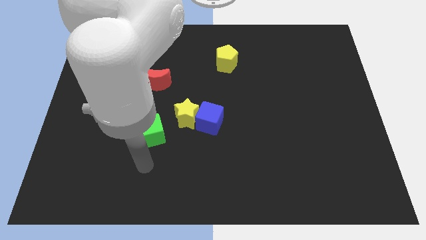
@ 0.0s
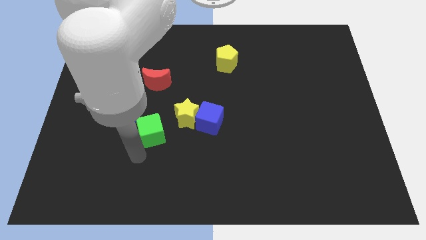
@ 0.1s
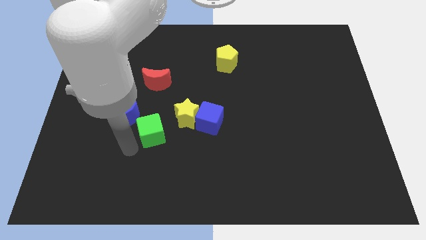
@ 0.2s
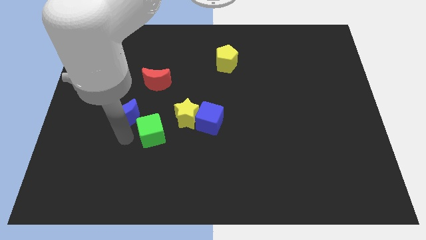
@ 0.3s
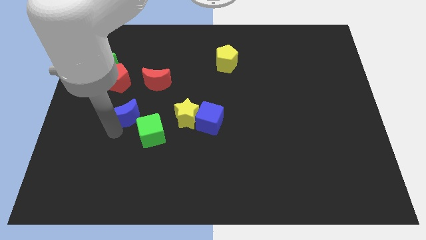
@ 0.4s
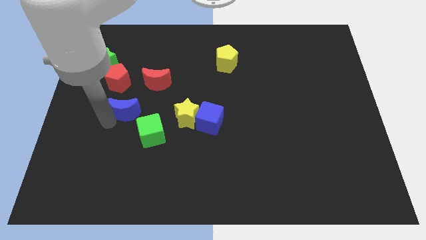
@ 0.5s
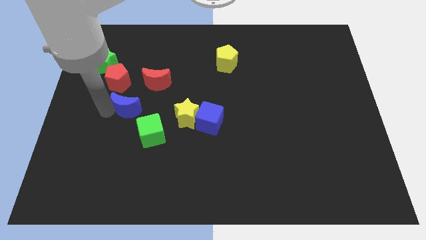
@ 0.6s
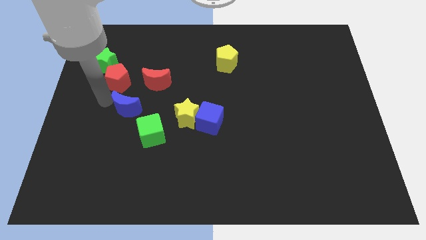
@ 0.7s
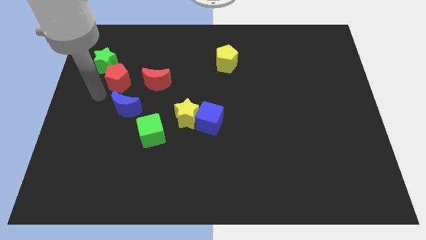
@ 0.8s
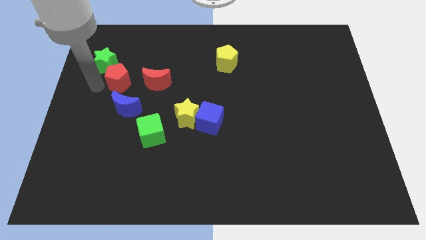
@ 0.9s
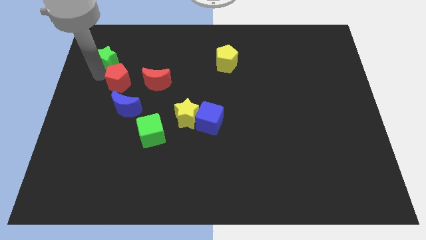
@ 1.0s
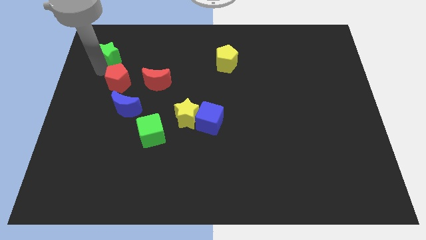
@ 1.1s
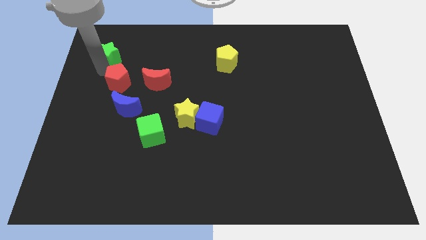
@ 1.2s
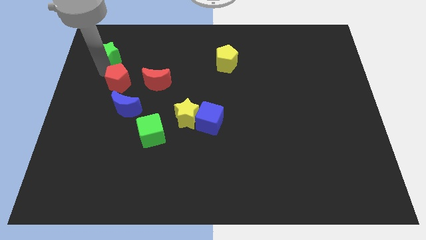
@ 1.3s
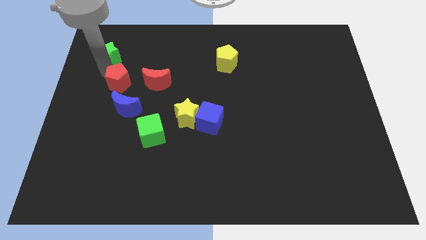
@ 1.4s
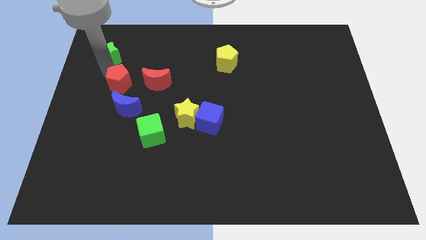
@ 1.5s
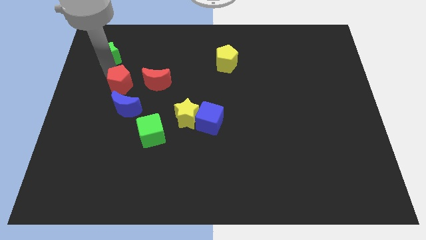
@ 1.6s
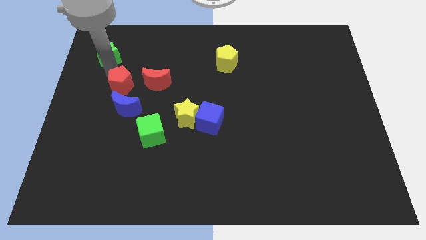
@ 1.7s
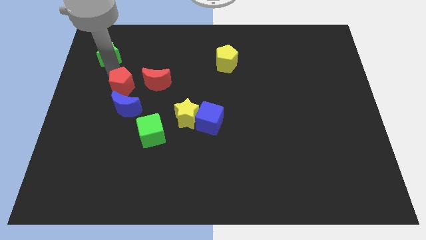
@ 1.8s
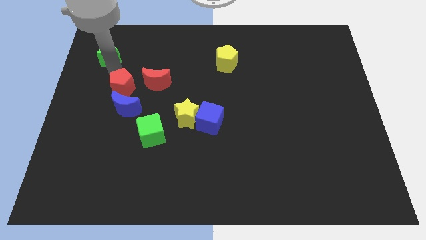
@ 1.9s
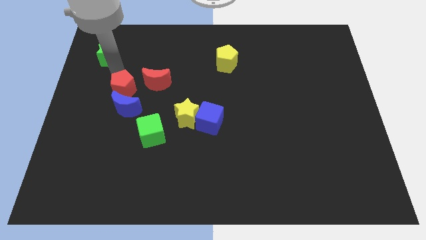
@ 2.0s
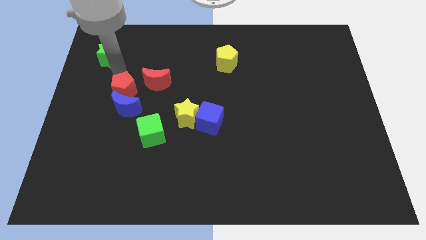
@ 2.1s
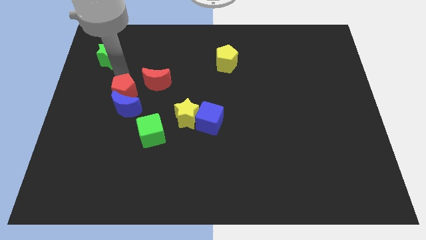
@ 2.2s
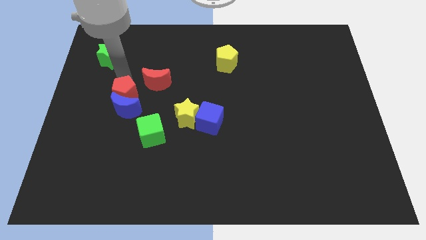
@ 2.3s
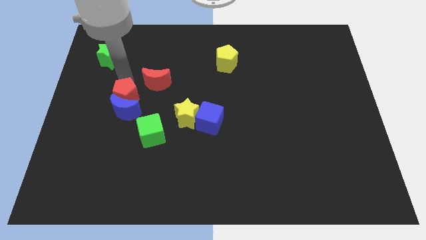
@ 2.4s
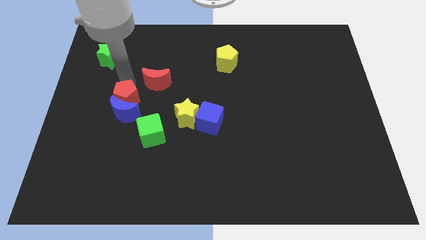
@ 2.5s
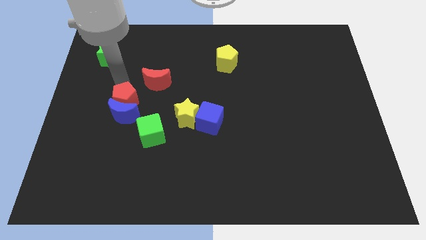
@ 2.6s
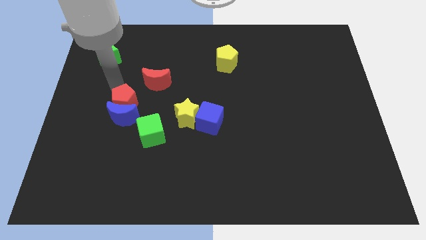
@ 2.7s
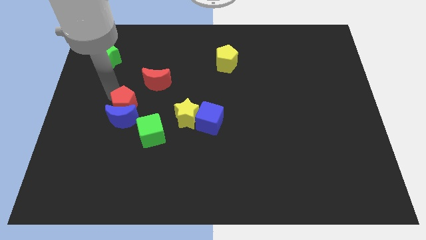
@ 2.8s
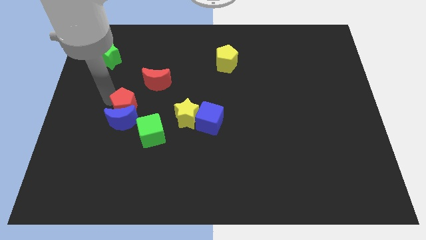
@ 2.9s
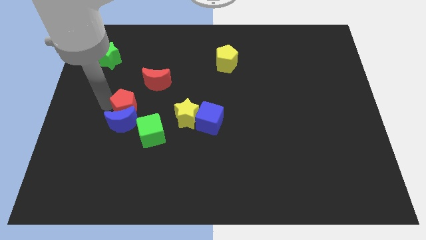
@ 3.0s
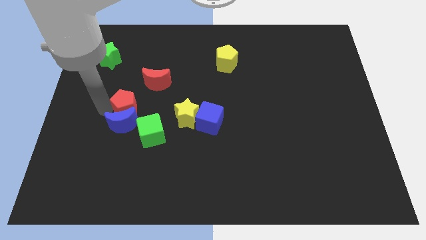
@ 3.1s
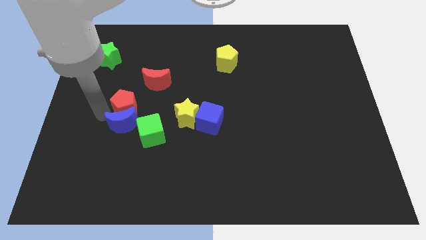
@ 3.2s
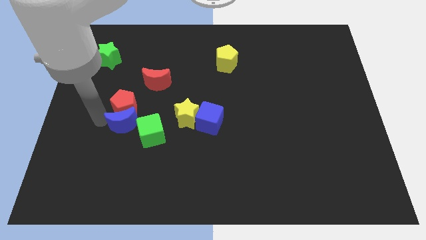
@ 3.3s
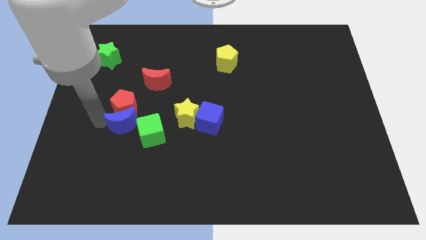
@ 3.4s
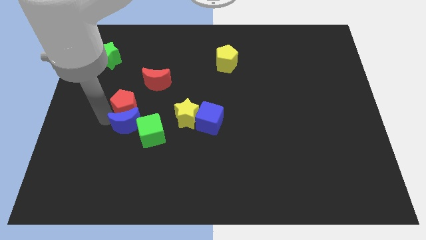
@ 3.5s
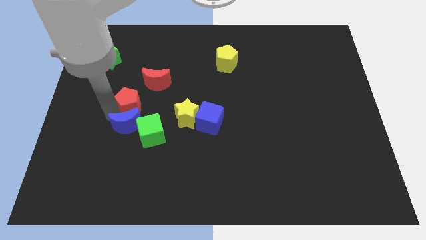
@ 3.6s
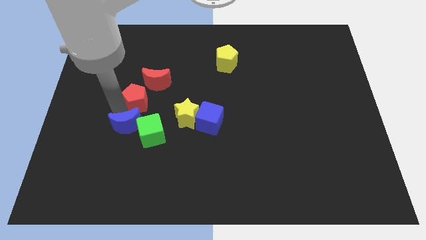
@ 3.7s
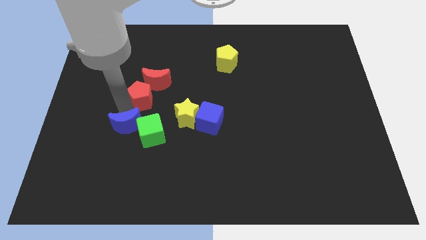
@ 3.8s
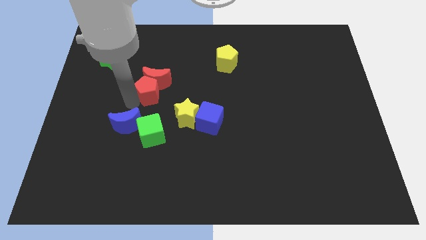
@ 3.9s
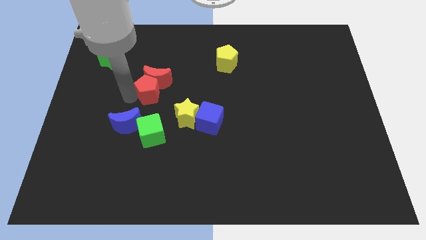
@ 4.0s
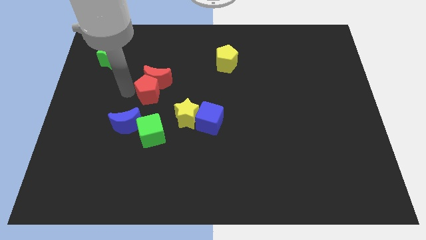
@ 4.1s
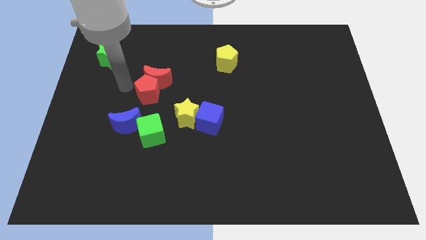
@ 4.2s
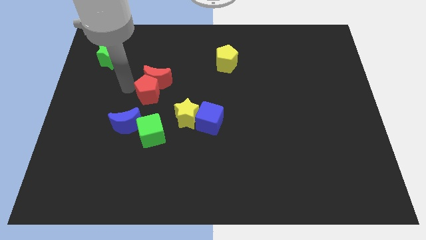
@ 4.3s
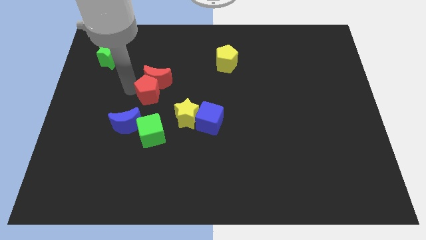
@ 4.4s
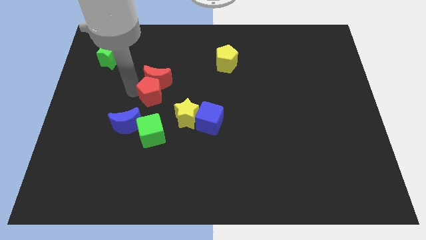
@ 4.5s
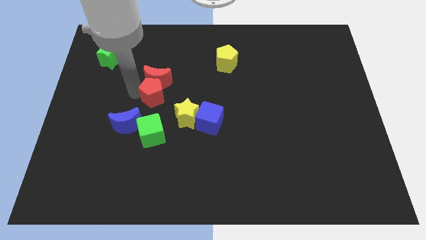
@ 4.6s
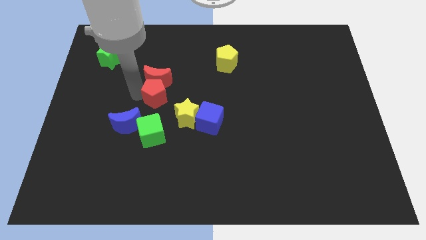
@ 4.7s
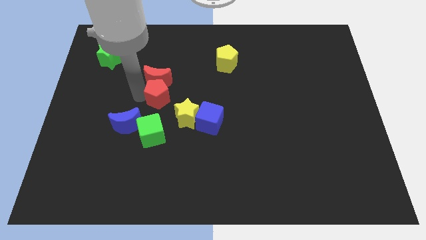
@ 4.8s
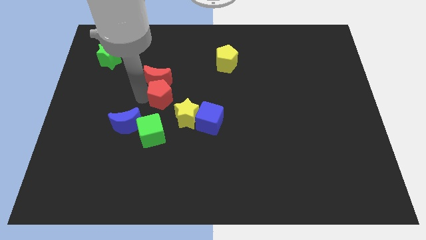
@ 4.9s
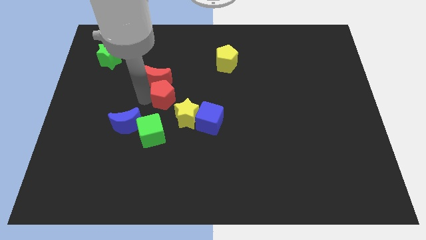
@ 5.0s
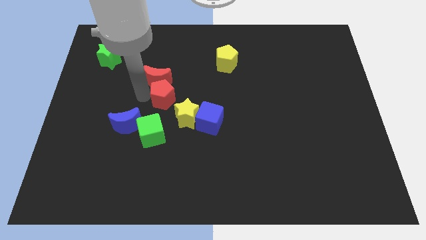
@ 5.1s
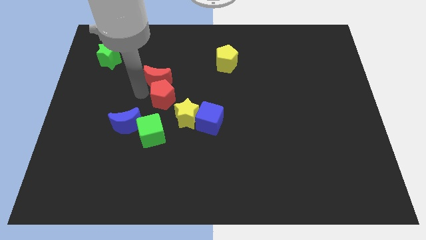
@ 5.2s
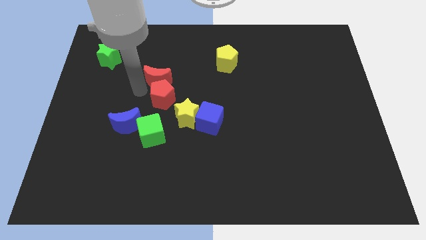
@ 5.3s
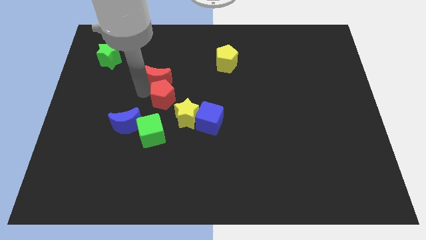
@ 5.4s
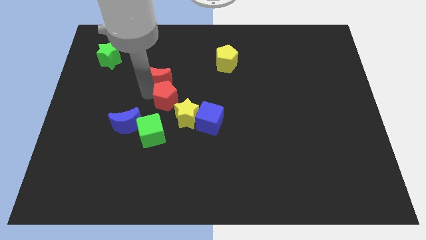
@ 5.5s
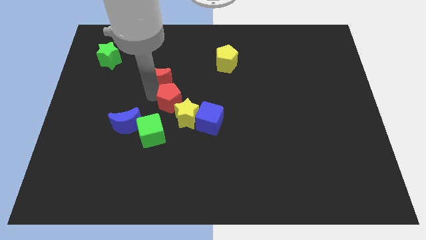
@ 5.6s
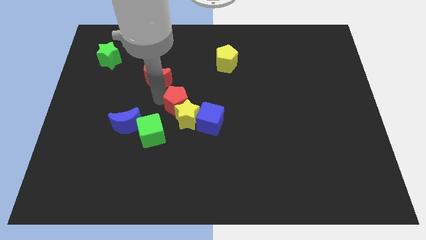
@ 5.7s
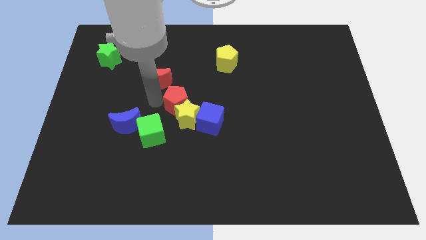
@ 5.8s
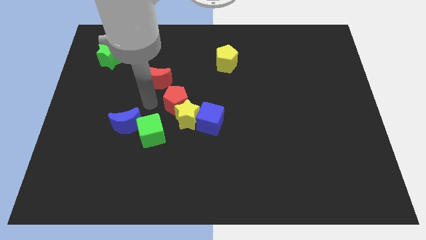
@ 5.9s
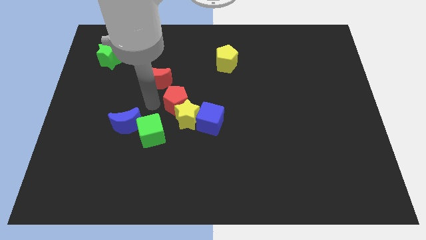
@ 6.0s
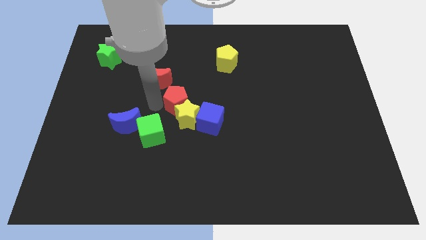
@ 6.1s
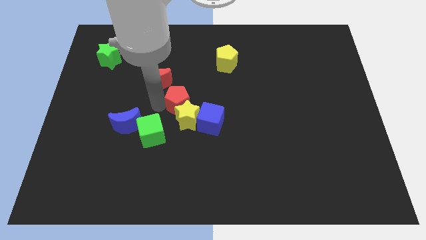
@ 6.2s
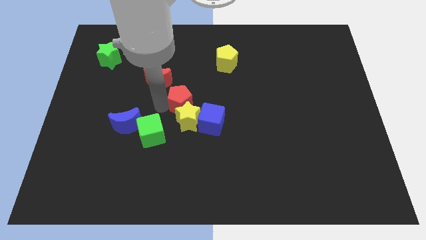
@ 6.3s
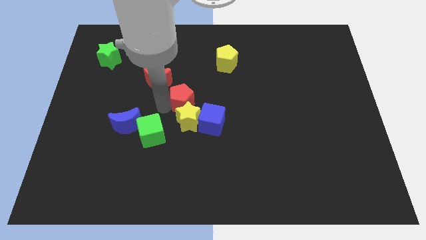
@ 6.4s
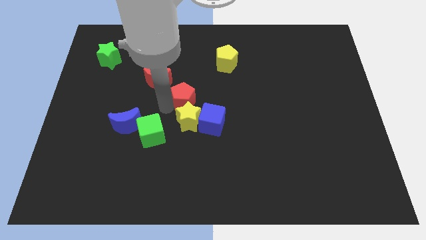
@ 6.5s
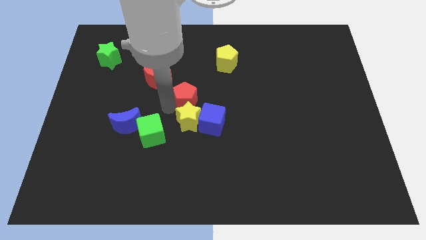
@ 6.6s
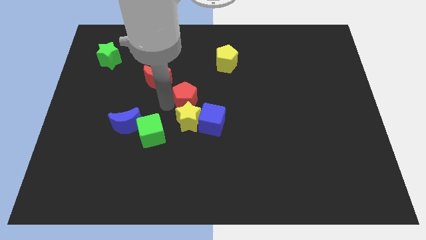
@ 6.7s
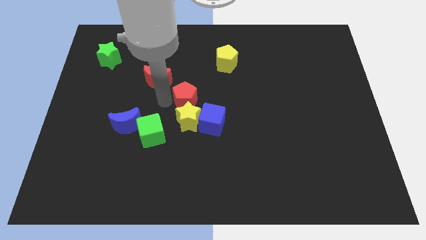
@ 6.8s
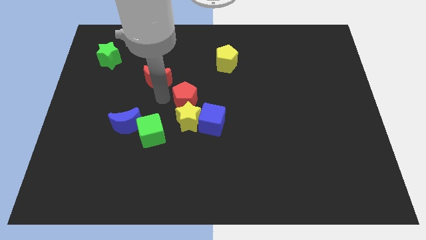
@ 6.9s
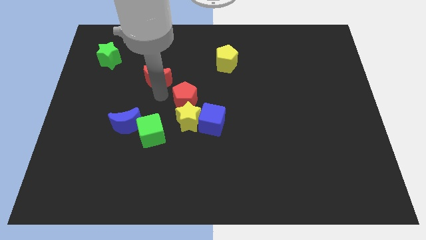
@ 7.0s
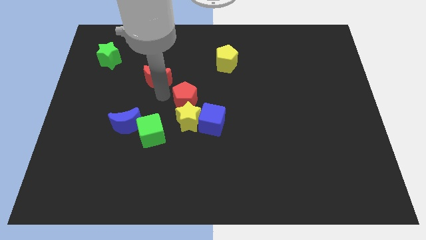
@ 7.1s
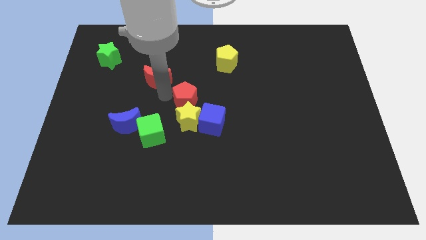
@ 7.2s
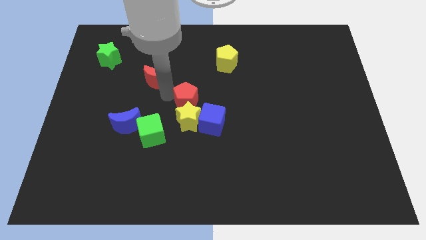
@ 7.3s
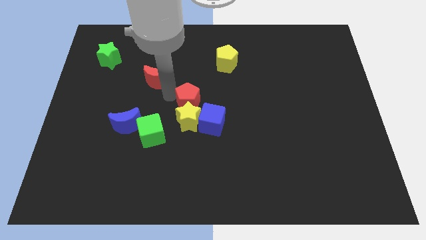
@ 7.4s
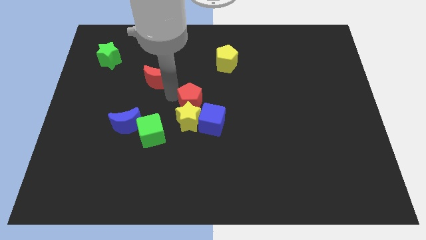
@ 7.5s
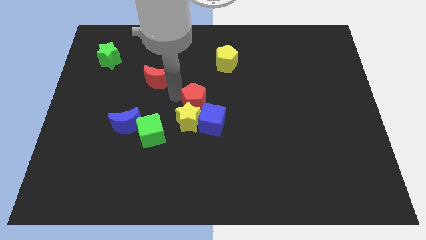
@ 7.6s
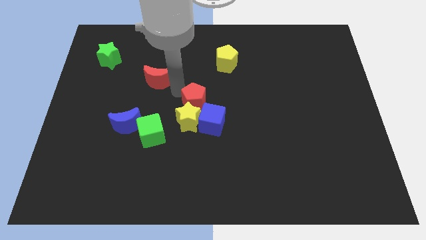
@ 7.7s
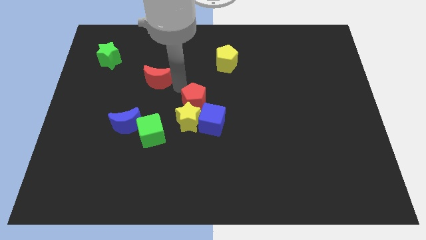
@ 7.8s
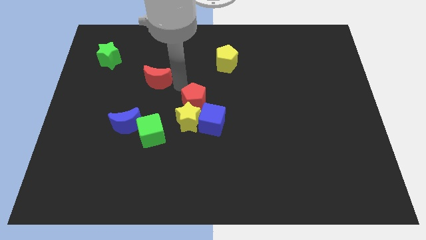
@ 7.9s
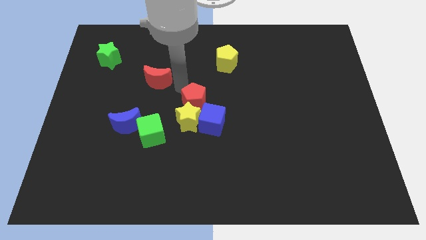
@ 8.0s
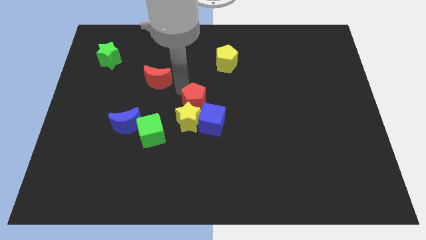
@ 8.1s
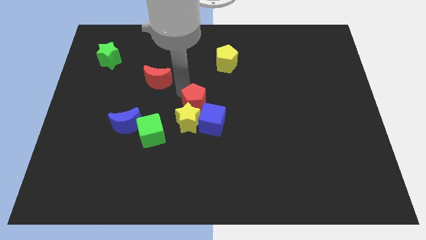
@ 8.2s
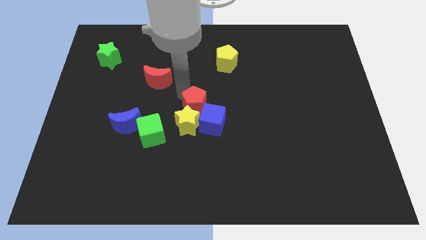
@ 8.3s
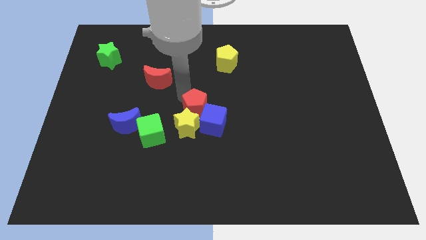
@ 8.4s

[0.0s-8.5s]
put the red pentagon close to the blue cube
